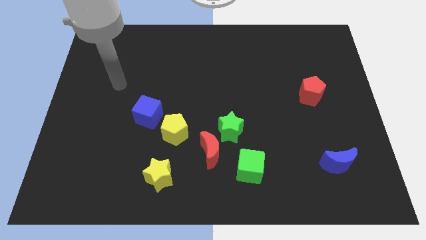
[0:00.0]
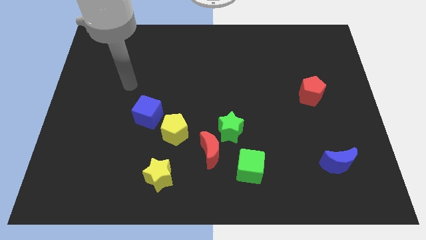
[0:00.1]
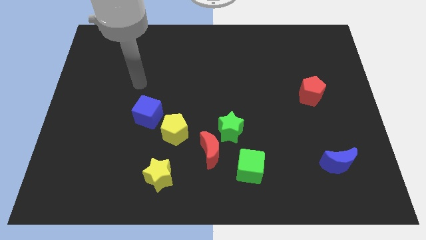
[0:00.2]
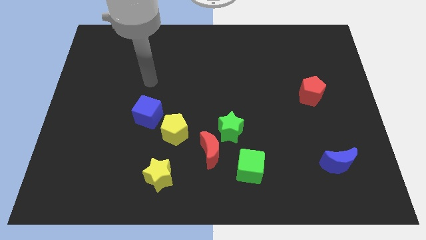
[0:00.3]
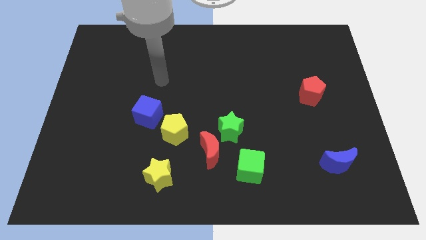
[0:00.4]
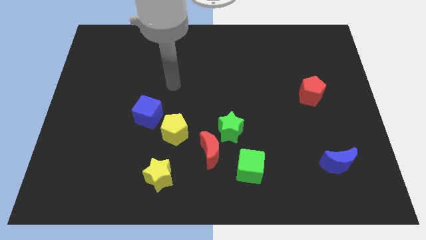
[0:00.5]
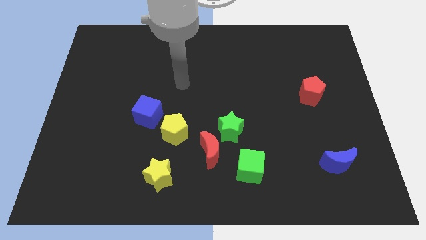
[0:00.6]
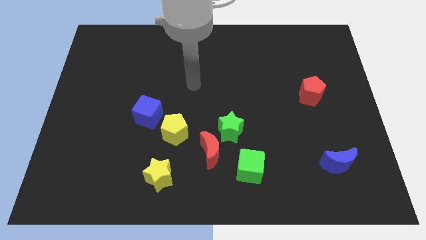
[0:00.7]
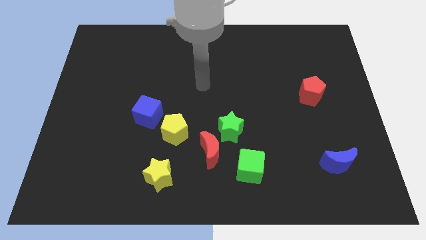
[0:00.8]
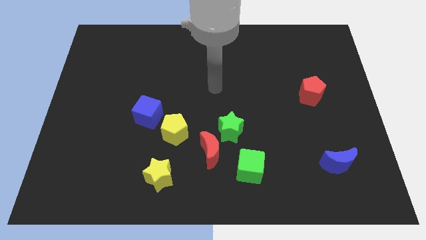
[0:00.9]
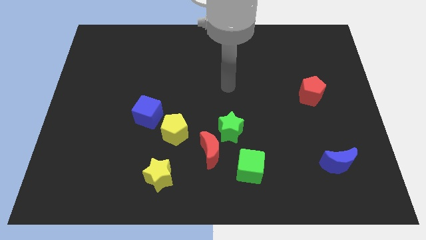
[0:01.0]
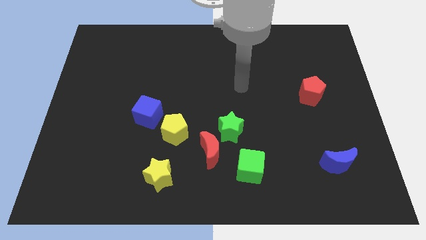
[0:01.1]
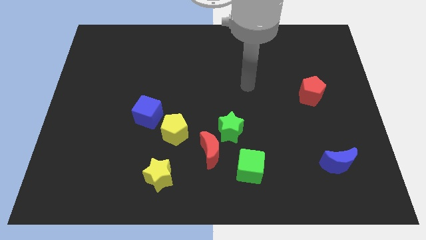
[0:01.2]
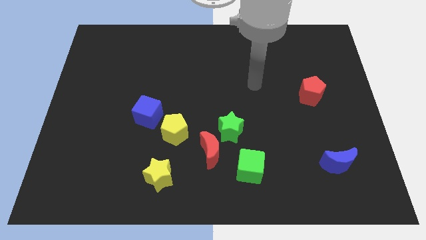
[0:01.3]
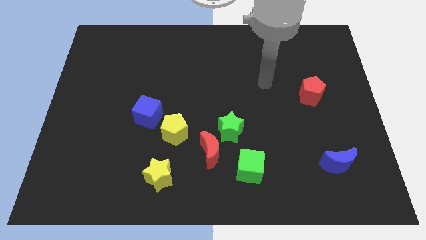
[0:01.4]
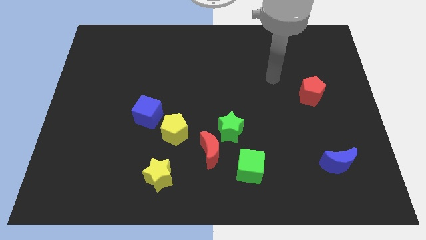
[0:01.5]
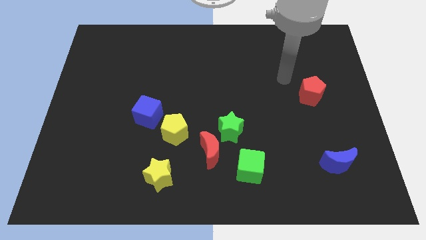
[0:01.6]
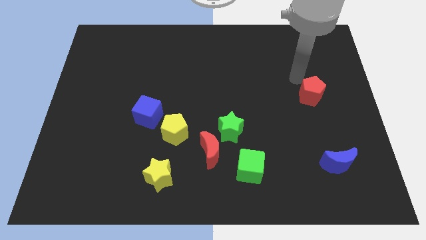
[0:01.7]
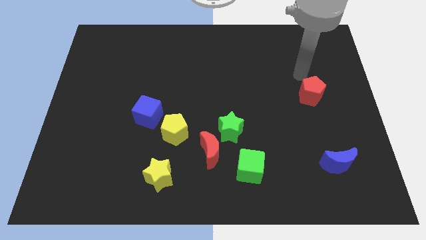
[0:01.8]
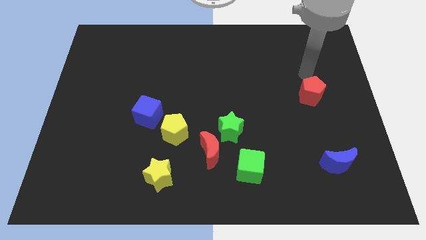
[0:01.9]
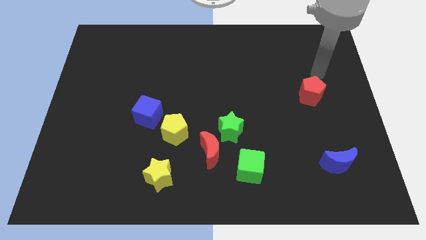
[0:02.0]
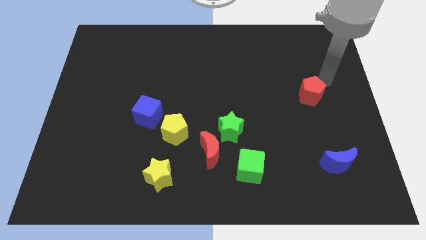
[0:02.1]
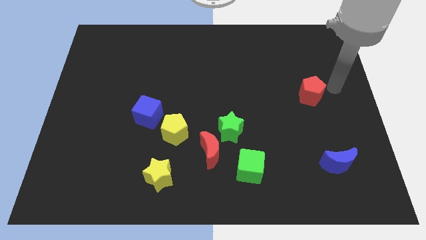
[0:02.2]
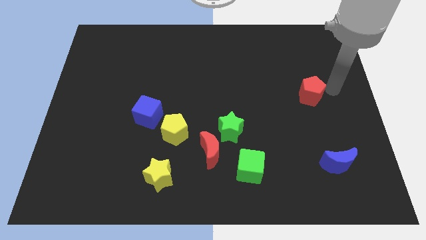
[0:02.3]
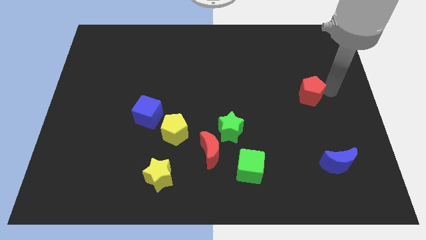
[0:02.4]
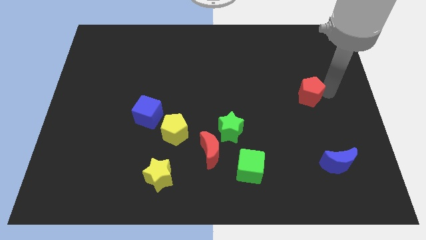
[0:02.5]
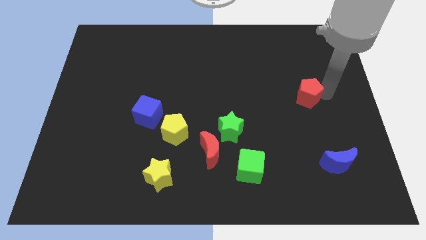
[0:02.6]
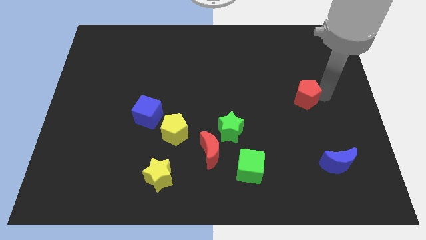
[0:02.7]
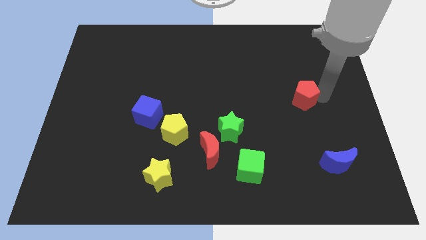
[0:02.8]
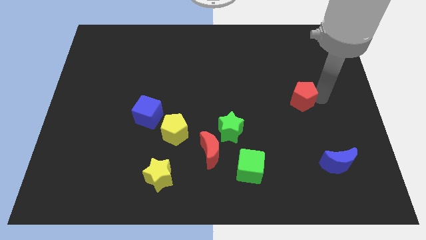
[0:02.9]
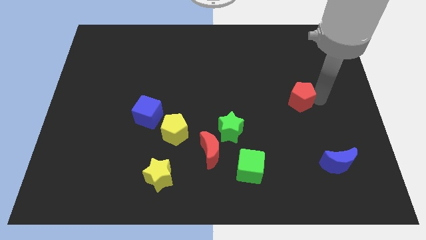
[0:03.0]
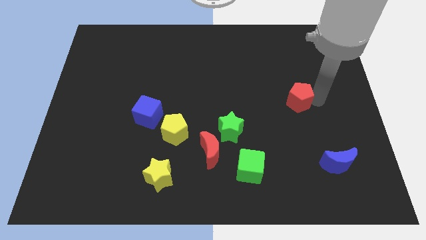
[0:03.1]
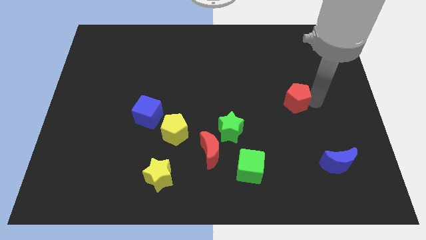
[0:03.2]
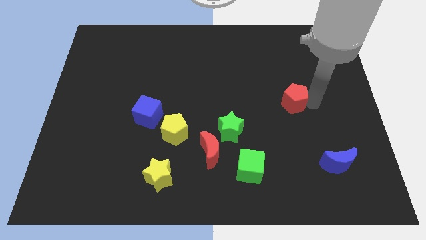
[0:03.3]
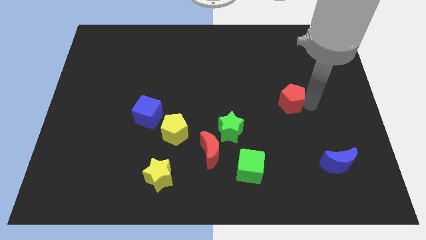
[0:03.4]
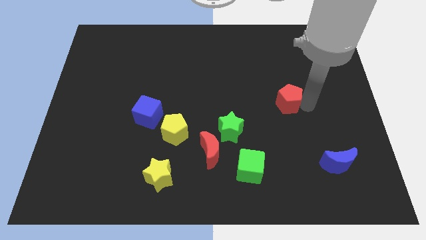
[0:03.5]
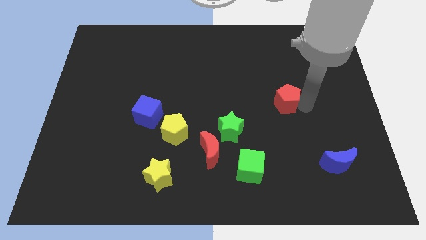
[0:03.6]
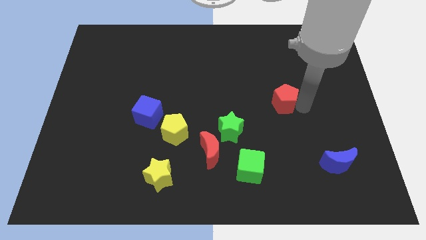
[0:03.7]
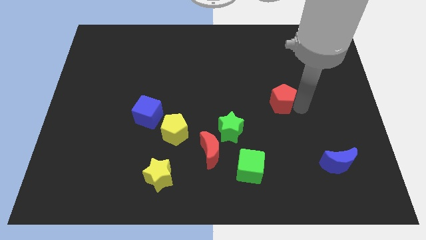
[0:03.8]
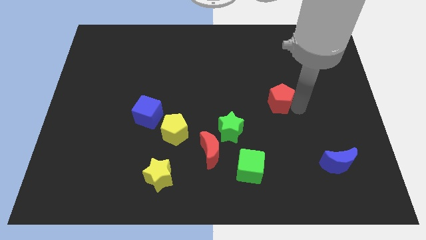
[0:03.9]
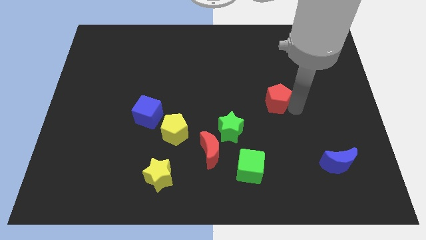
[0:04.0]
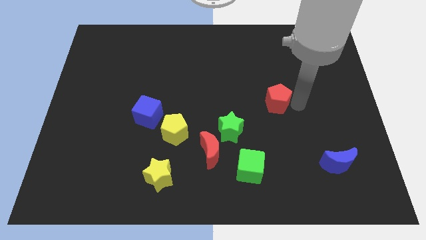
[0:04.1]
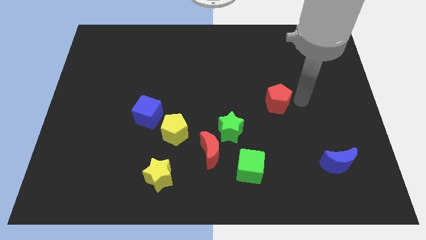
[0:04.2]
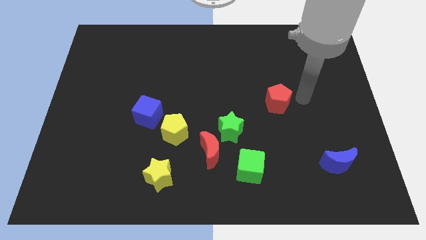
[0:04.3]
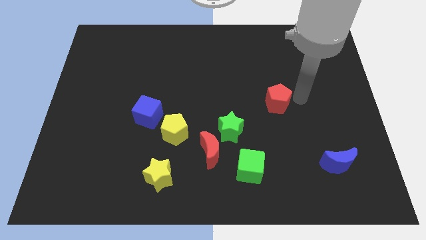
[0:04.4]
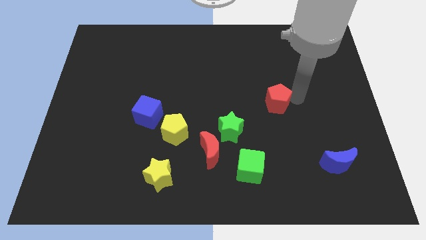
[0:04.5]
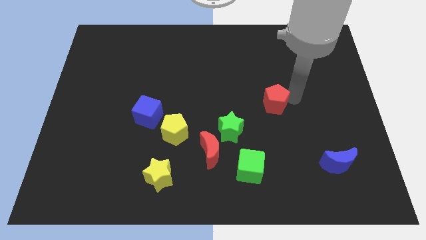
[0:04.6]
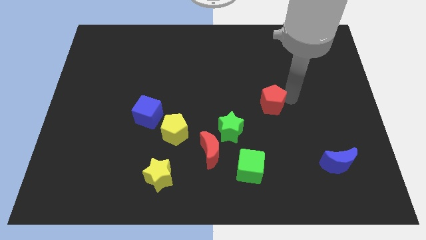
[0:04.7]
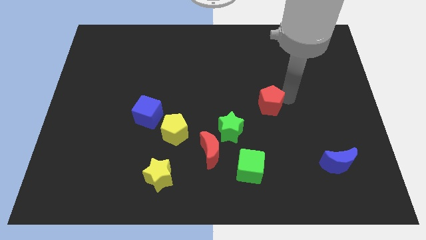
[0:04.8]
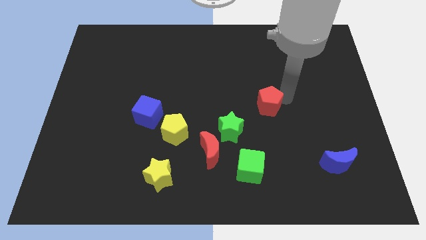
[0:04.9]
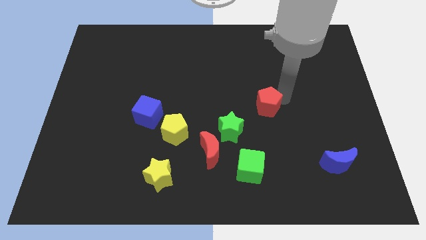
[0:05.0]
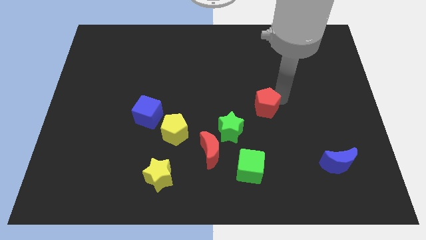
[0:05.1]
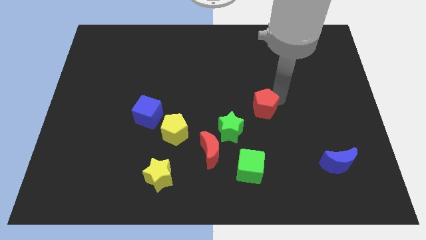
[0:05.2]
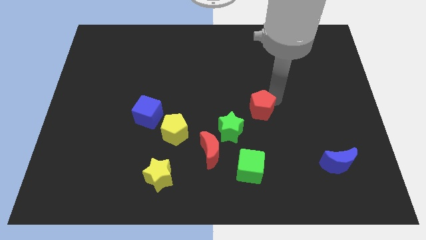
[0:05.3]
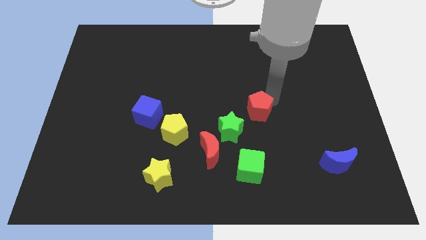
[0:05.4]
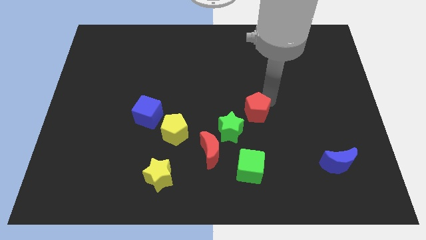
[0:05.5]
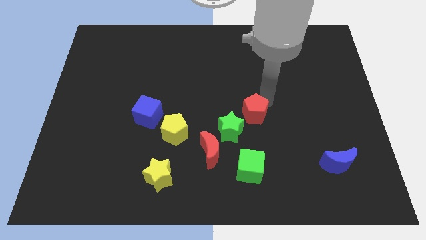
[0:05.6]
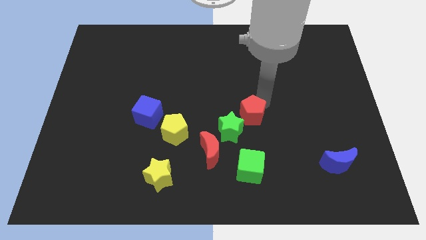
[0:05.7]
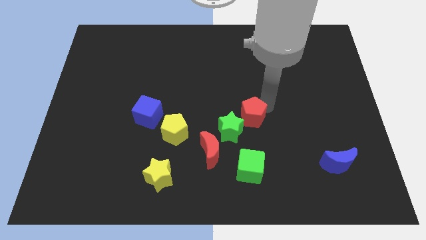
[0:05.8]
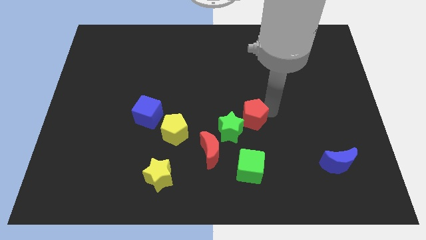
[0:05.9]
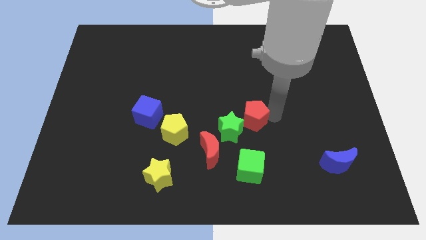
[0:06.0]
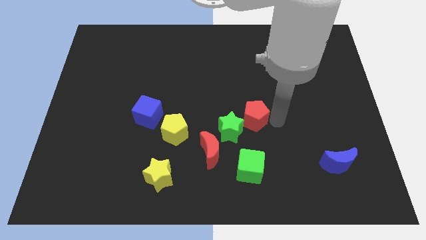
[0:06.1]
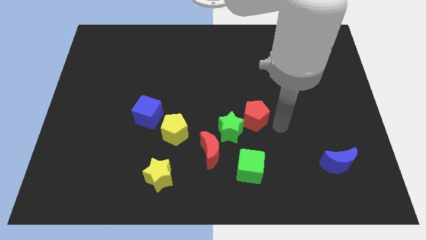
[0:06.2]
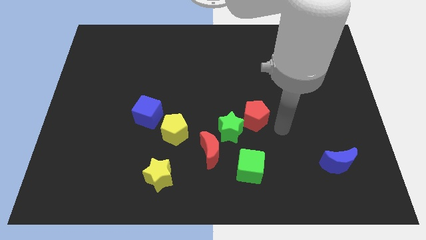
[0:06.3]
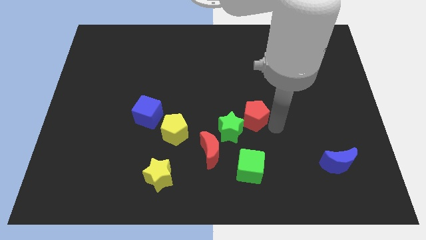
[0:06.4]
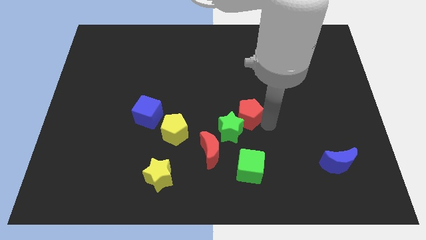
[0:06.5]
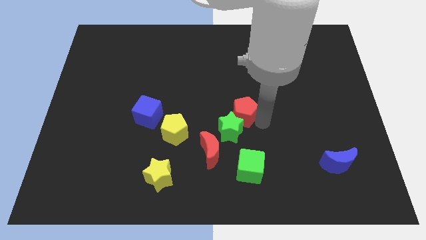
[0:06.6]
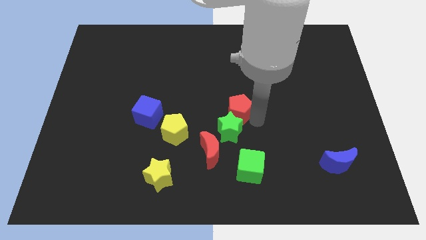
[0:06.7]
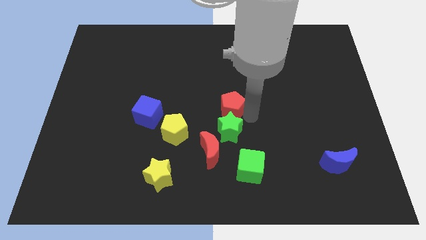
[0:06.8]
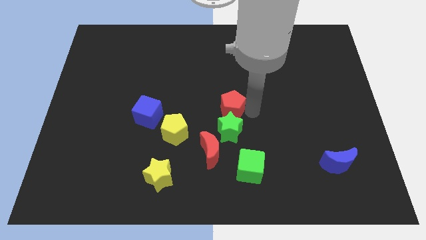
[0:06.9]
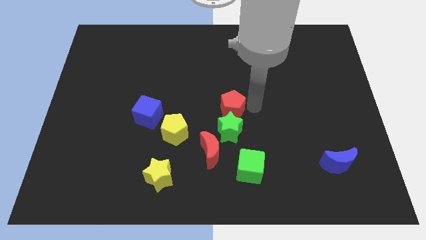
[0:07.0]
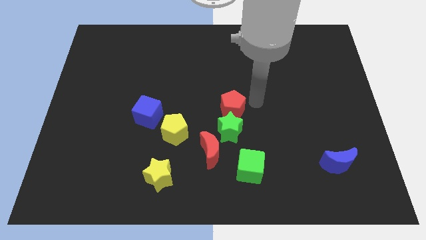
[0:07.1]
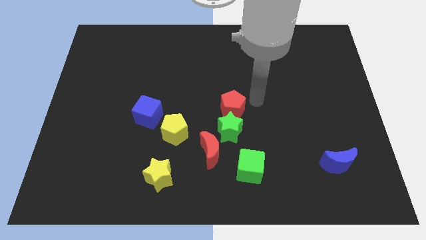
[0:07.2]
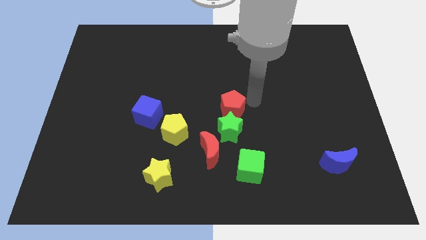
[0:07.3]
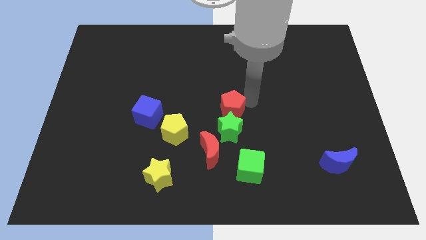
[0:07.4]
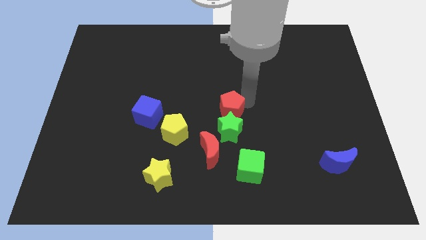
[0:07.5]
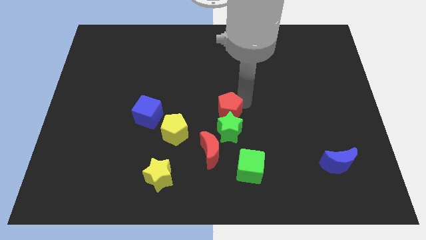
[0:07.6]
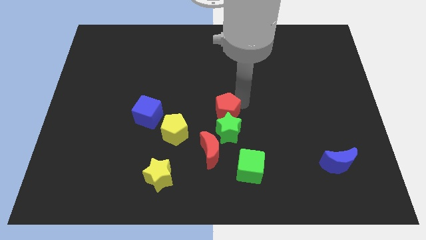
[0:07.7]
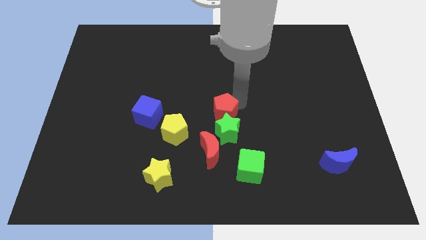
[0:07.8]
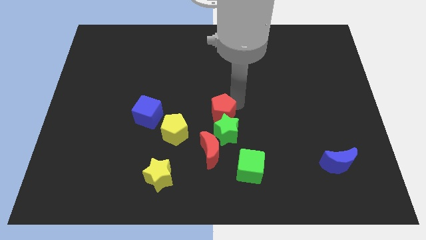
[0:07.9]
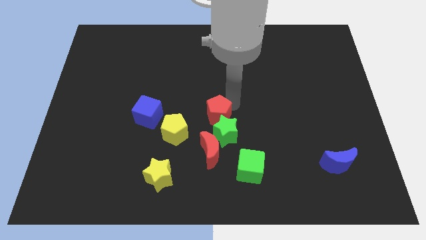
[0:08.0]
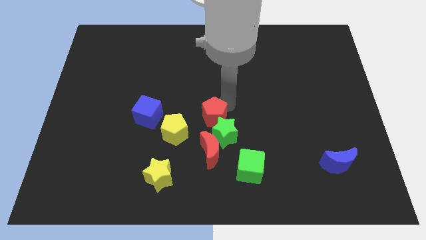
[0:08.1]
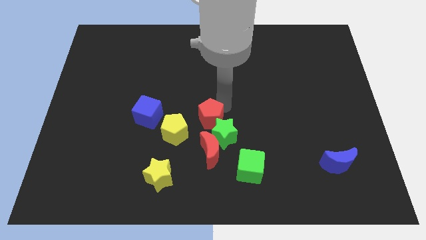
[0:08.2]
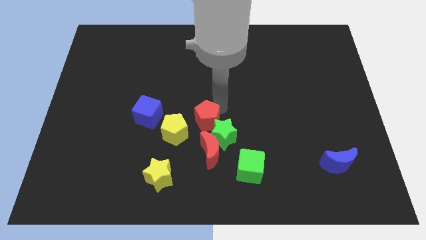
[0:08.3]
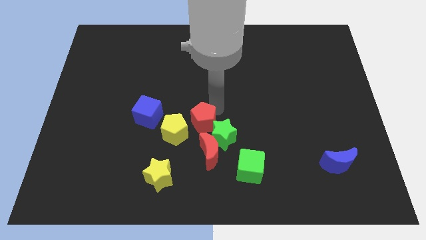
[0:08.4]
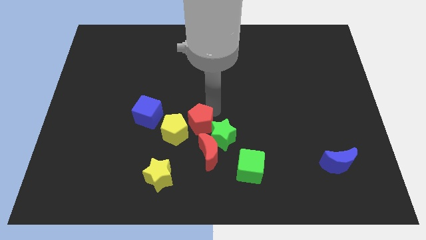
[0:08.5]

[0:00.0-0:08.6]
slide the red pentagon next to the yellow pentagon
